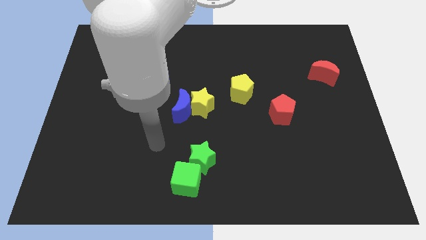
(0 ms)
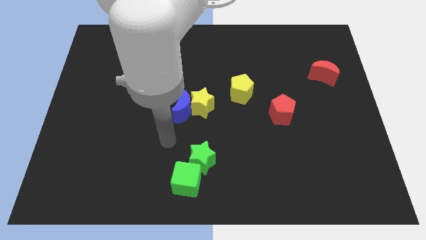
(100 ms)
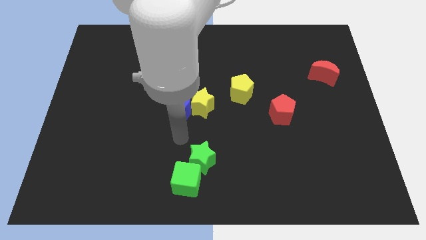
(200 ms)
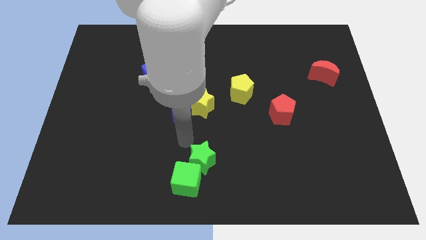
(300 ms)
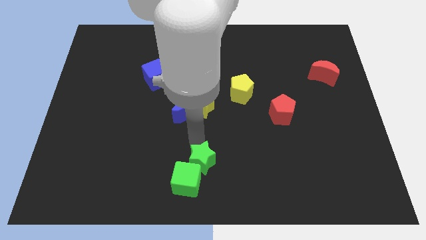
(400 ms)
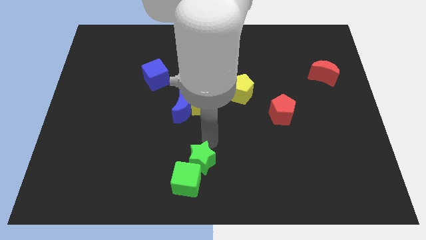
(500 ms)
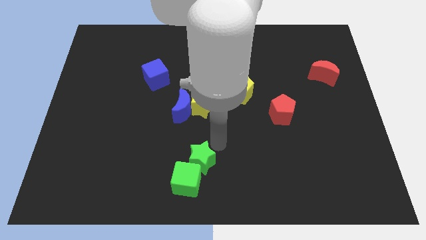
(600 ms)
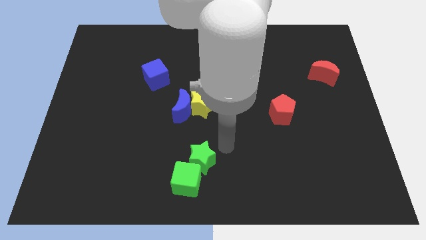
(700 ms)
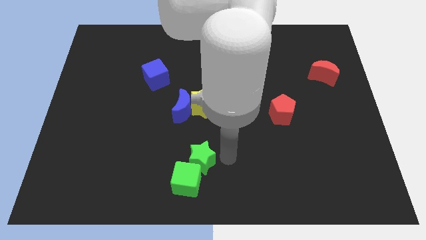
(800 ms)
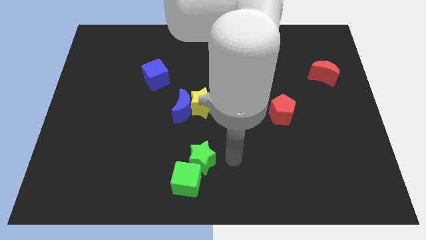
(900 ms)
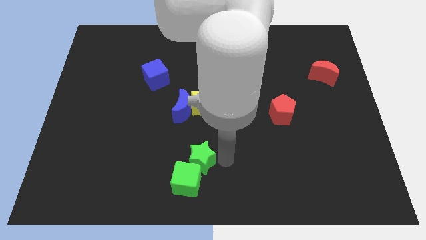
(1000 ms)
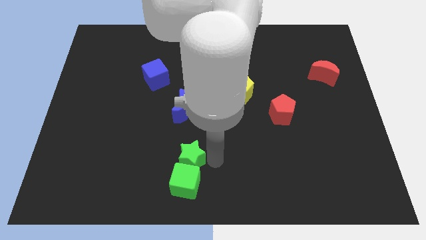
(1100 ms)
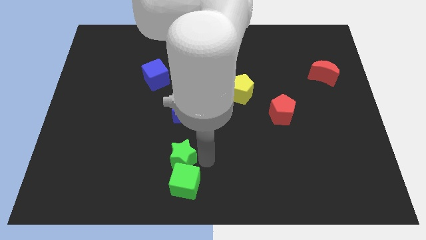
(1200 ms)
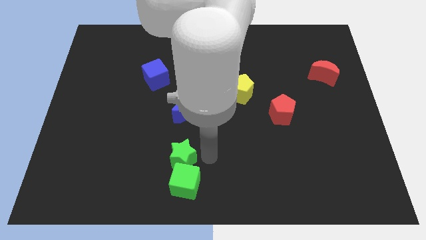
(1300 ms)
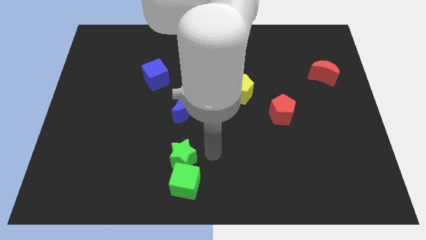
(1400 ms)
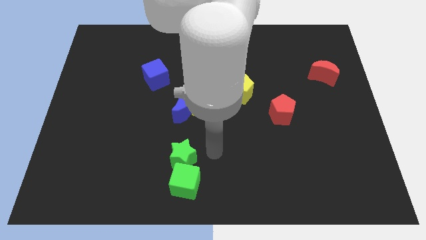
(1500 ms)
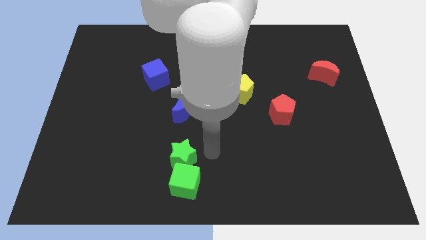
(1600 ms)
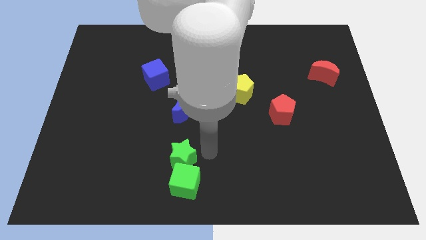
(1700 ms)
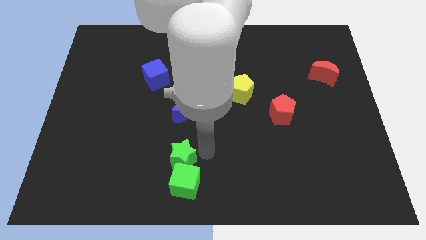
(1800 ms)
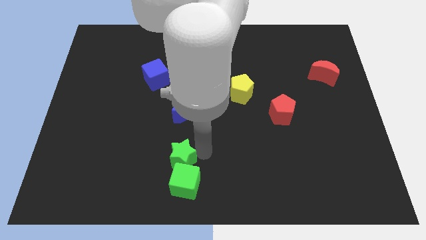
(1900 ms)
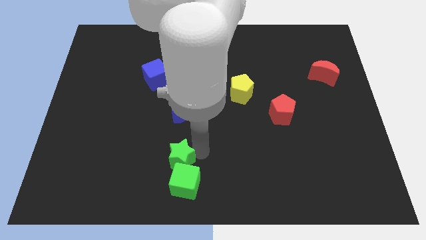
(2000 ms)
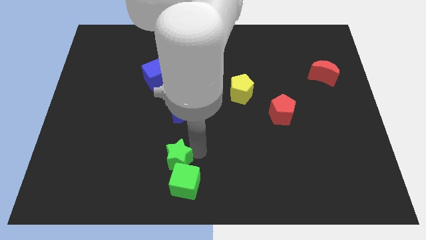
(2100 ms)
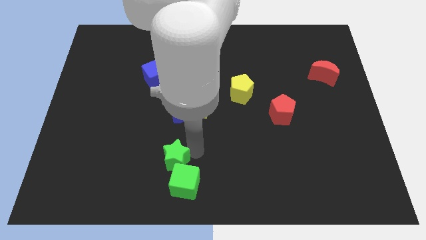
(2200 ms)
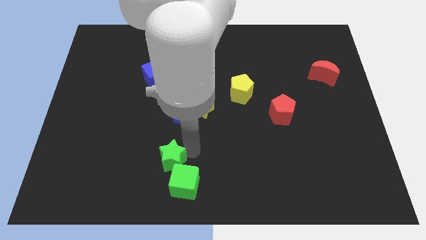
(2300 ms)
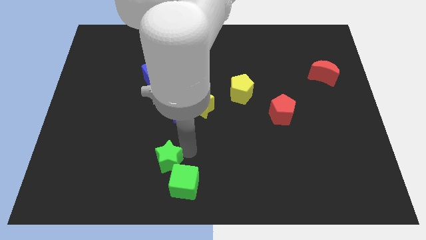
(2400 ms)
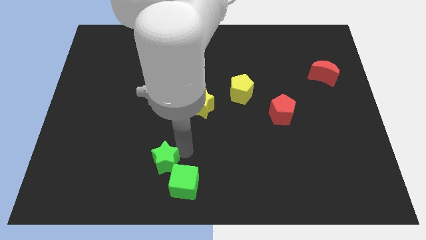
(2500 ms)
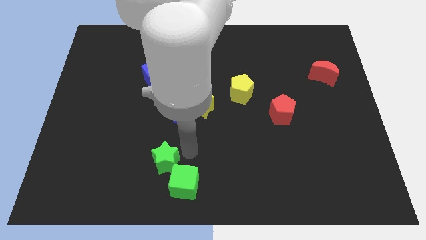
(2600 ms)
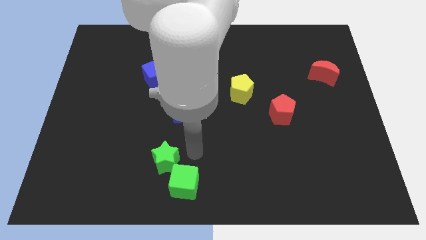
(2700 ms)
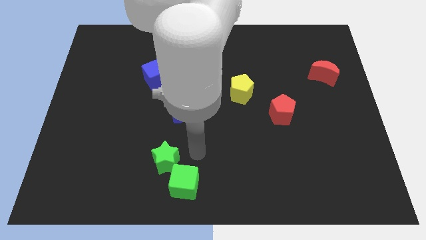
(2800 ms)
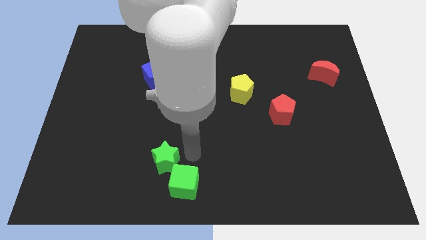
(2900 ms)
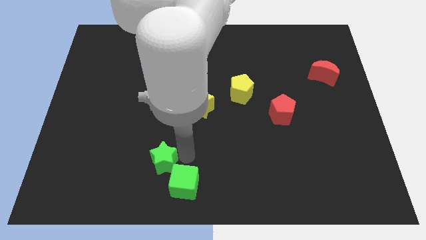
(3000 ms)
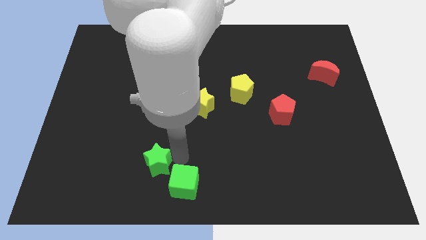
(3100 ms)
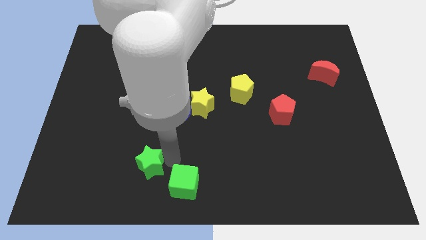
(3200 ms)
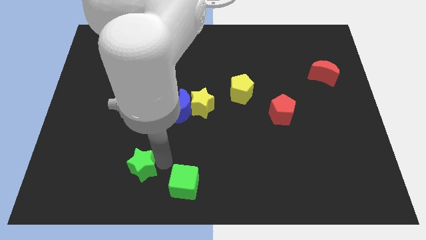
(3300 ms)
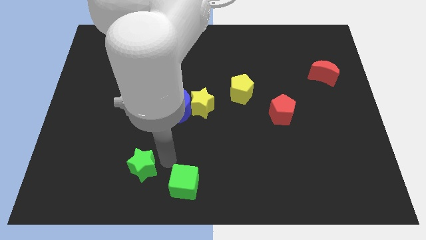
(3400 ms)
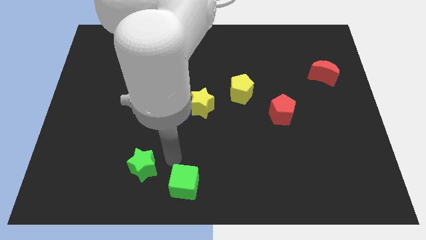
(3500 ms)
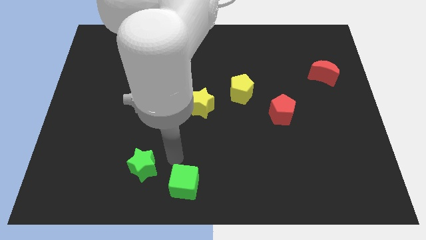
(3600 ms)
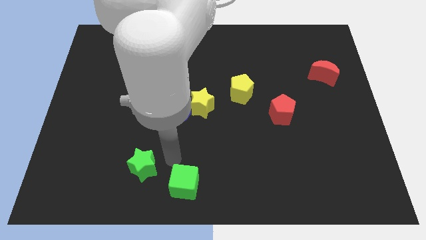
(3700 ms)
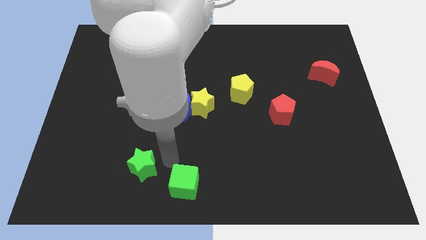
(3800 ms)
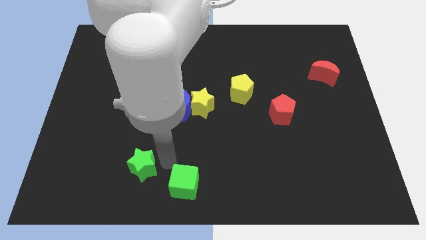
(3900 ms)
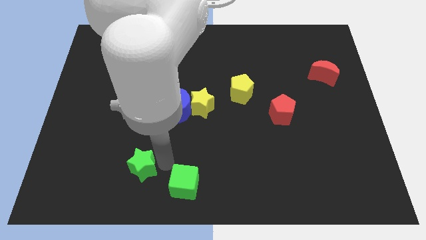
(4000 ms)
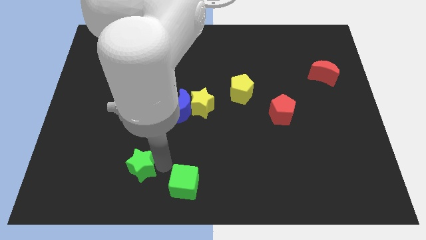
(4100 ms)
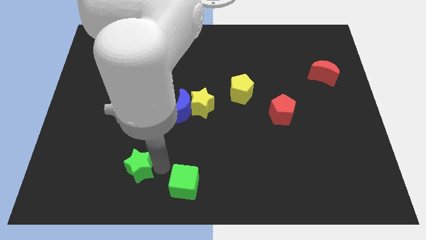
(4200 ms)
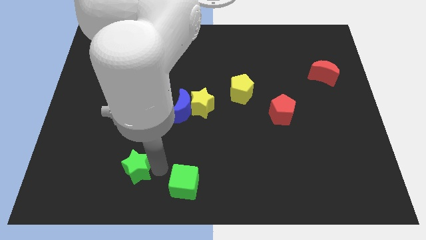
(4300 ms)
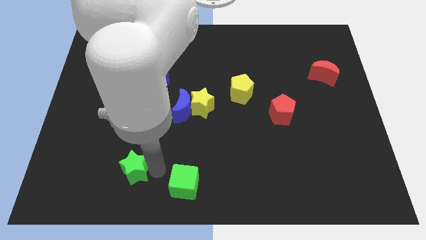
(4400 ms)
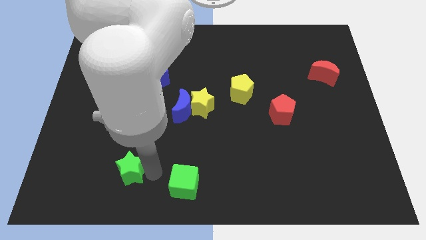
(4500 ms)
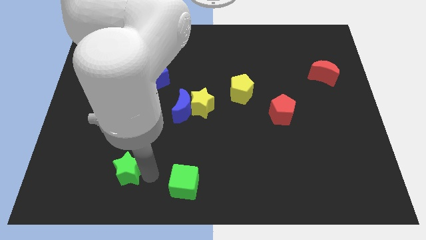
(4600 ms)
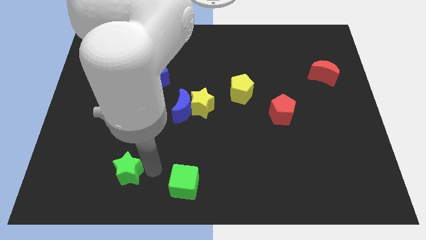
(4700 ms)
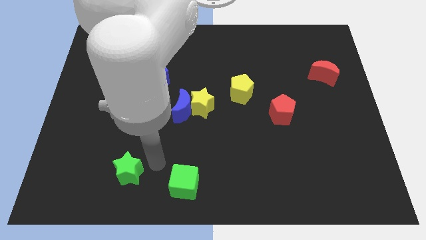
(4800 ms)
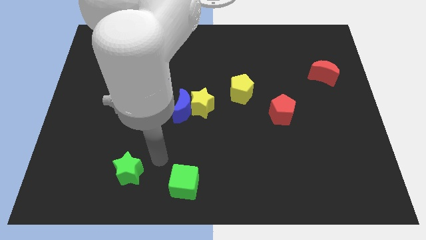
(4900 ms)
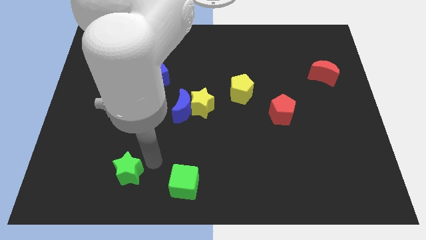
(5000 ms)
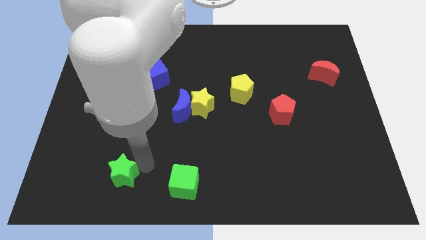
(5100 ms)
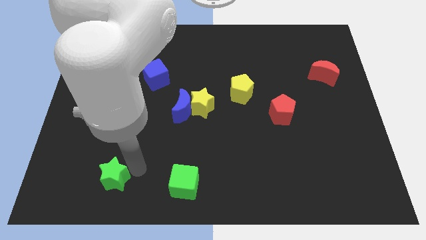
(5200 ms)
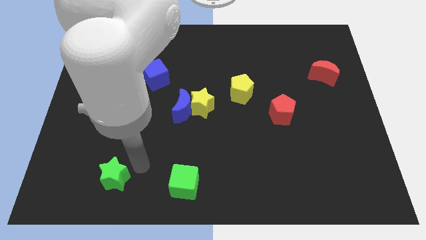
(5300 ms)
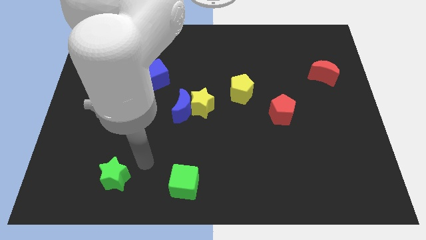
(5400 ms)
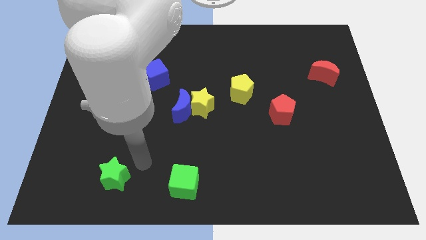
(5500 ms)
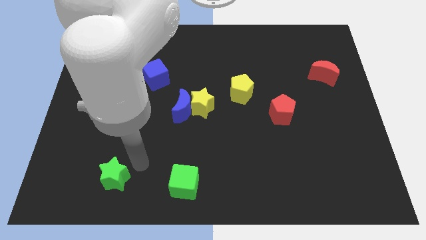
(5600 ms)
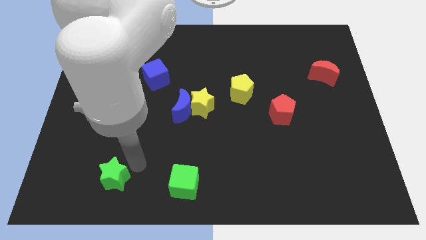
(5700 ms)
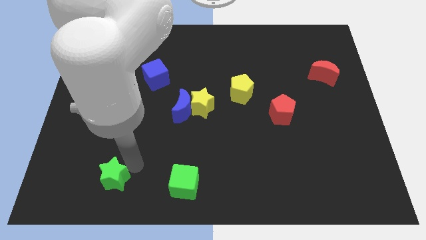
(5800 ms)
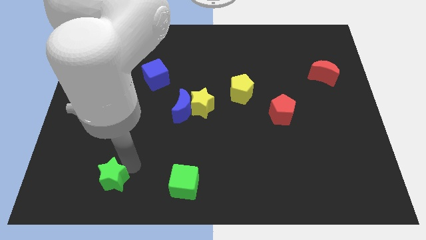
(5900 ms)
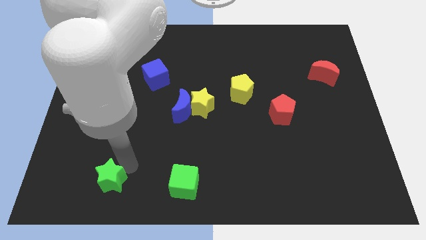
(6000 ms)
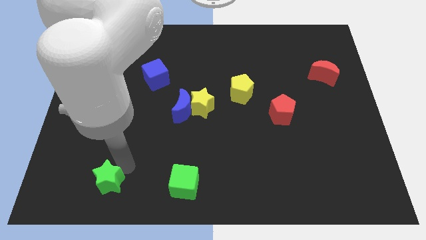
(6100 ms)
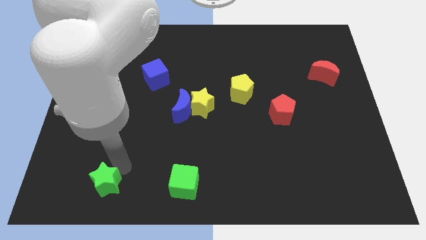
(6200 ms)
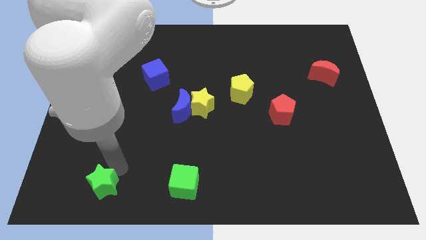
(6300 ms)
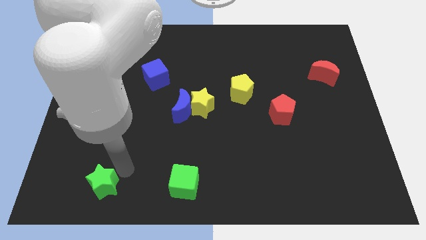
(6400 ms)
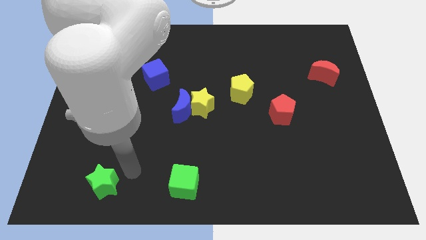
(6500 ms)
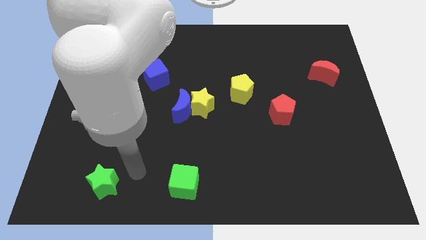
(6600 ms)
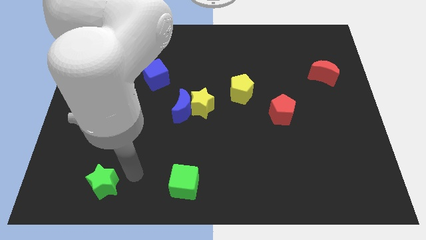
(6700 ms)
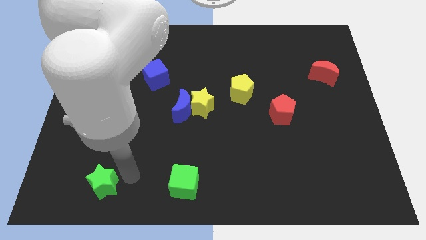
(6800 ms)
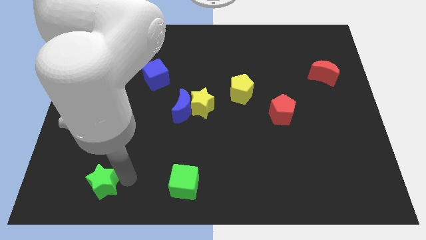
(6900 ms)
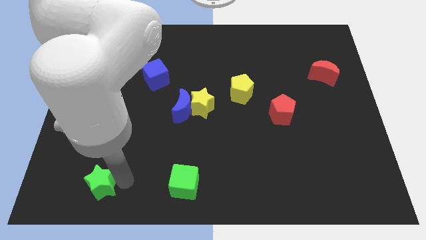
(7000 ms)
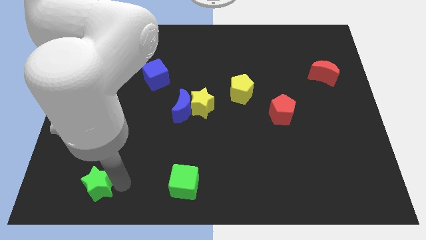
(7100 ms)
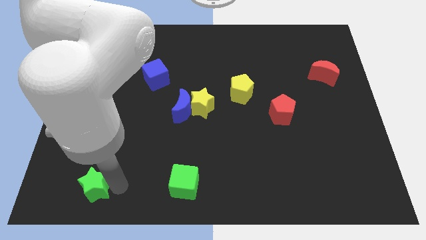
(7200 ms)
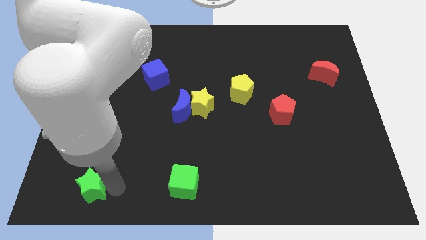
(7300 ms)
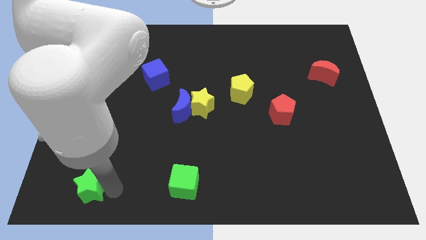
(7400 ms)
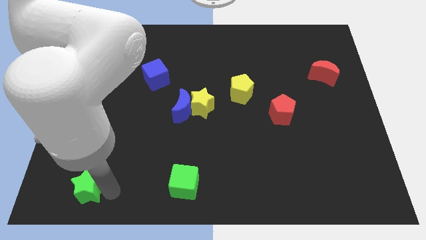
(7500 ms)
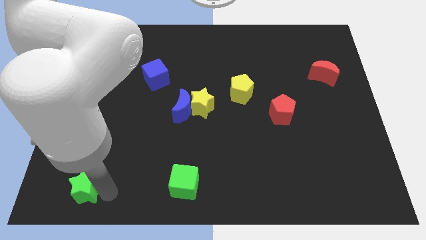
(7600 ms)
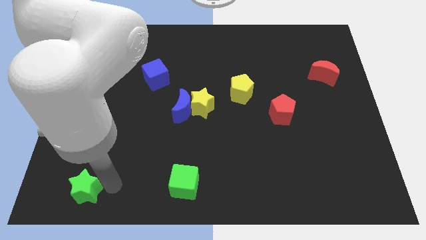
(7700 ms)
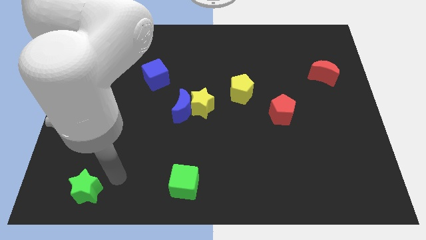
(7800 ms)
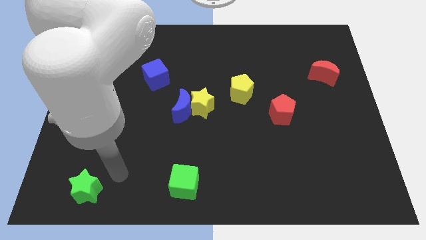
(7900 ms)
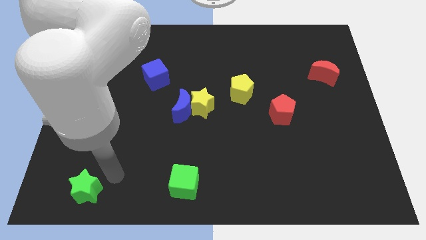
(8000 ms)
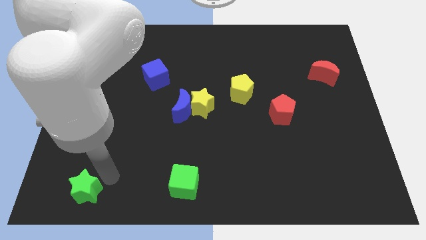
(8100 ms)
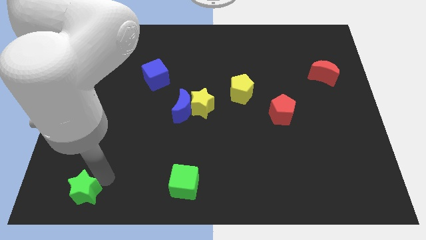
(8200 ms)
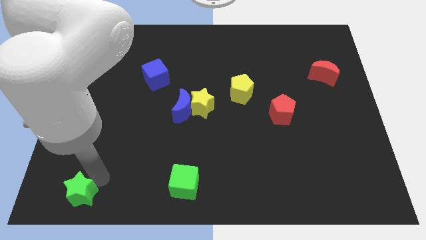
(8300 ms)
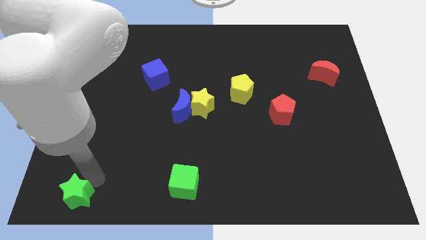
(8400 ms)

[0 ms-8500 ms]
put the green star to the bottom left
